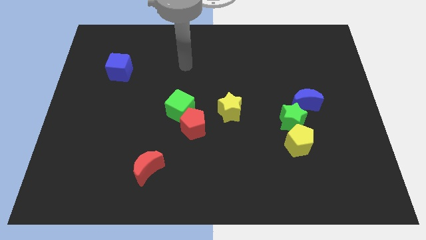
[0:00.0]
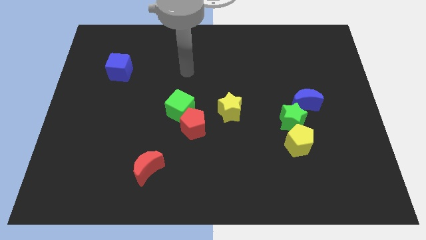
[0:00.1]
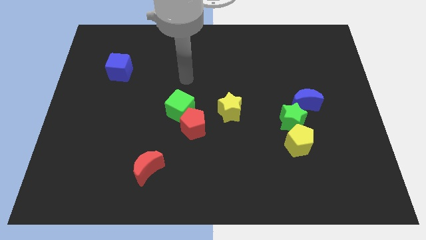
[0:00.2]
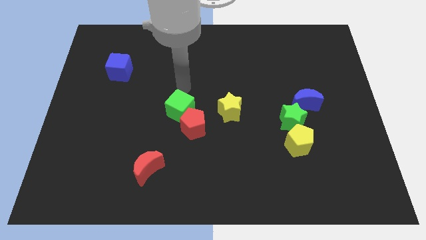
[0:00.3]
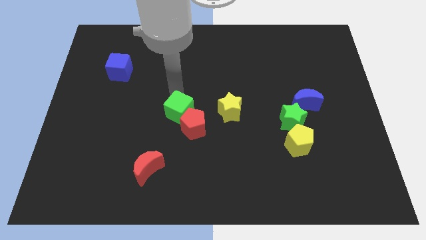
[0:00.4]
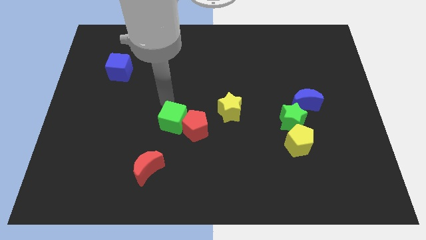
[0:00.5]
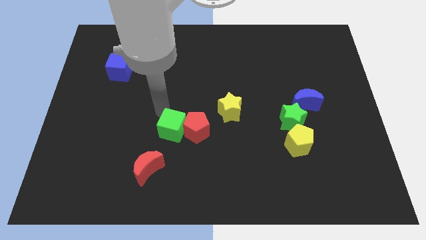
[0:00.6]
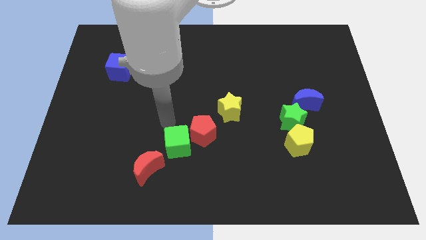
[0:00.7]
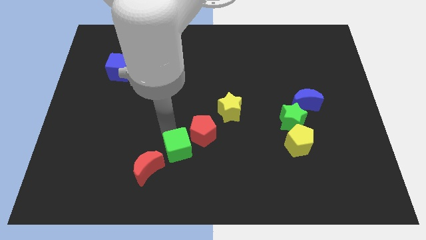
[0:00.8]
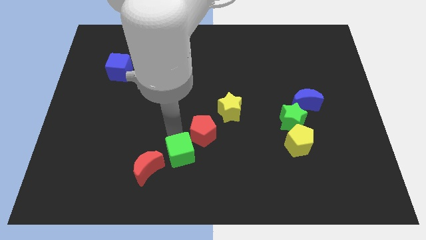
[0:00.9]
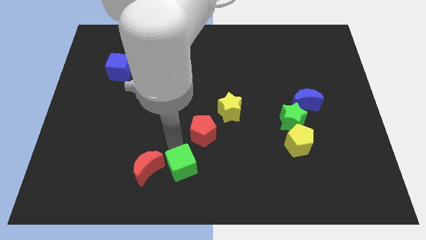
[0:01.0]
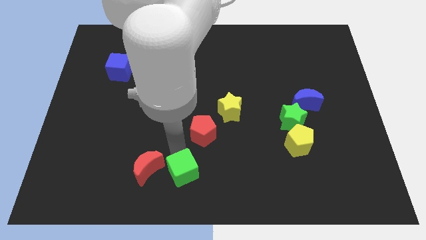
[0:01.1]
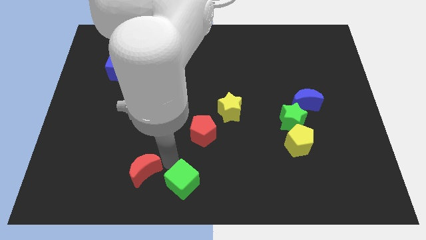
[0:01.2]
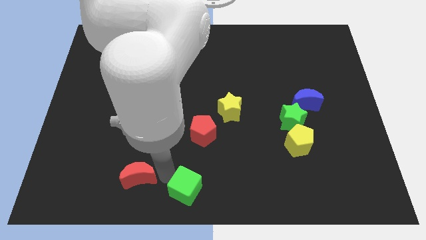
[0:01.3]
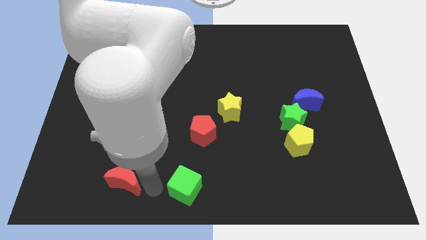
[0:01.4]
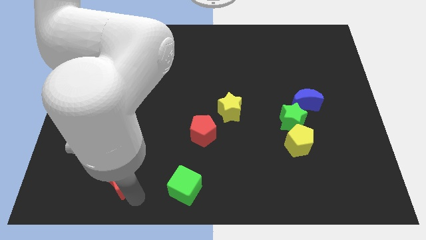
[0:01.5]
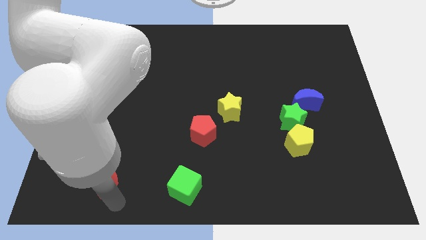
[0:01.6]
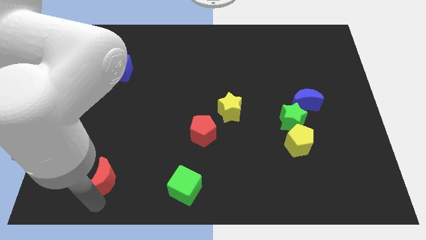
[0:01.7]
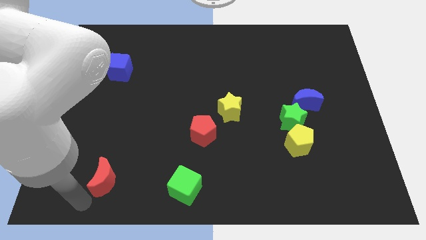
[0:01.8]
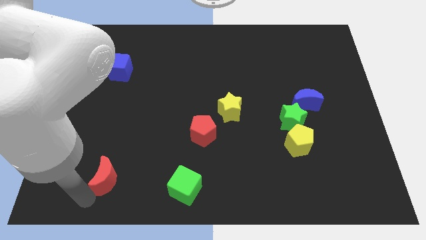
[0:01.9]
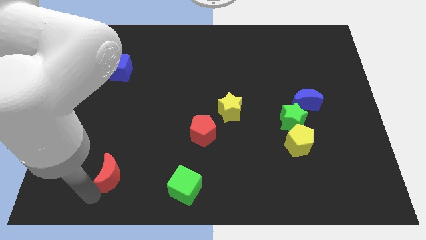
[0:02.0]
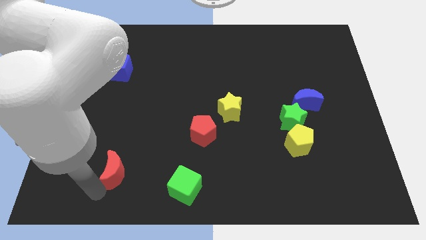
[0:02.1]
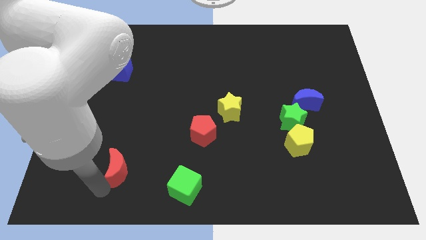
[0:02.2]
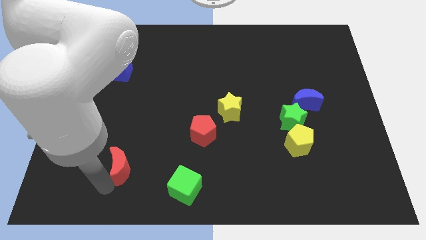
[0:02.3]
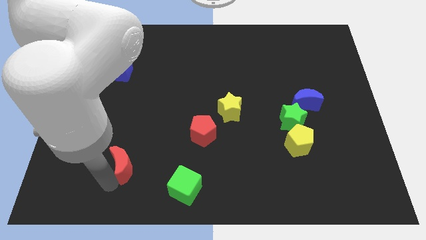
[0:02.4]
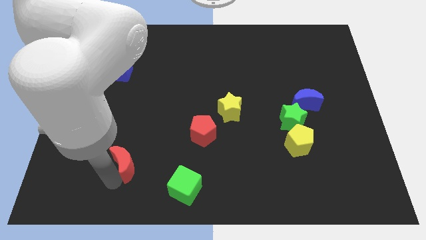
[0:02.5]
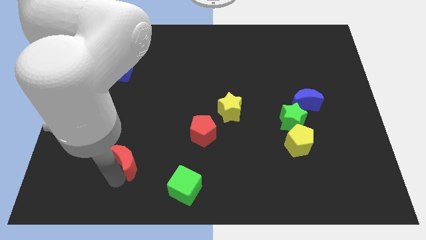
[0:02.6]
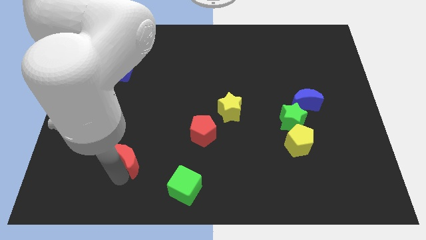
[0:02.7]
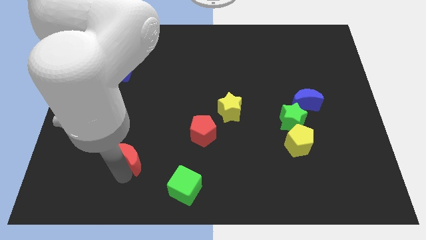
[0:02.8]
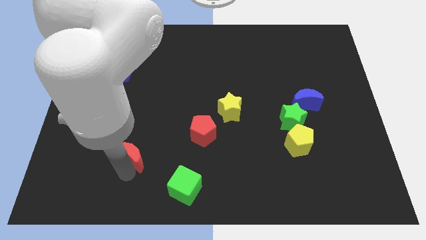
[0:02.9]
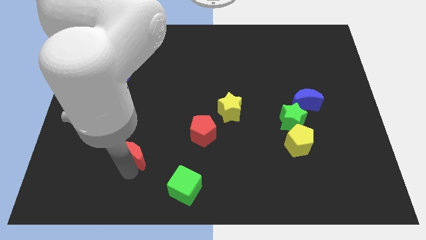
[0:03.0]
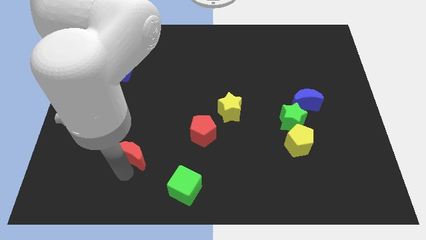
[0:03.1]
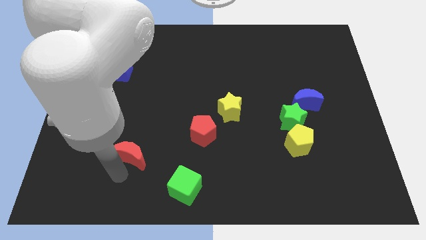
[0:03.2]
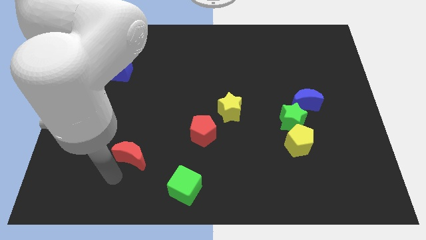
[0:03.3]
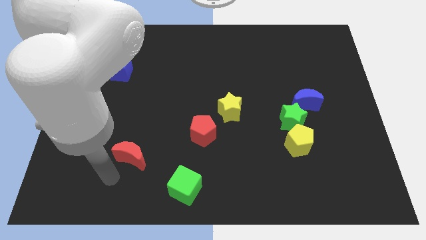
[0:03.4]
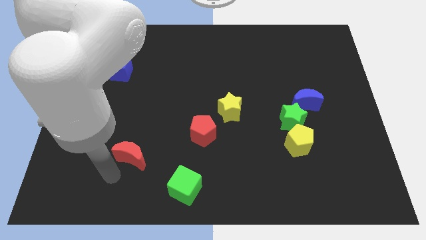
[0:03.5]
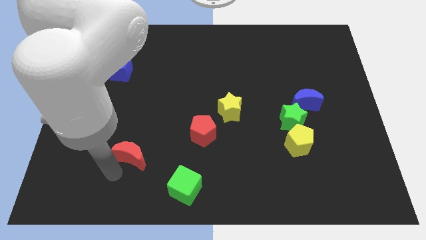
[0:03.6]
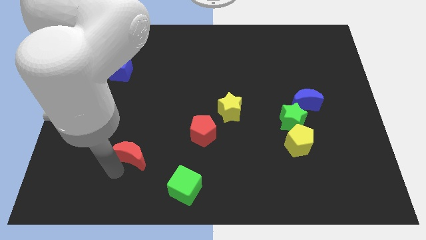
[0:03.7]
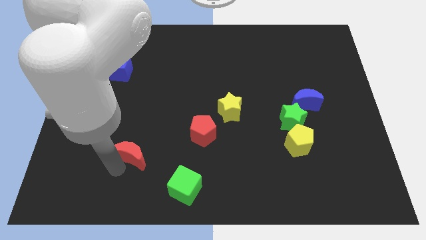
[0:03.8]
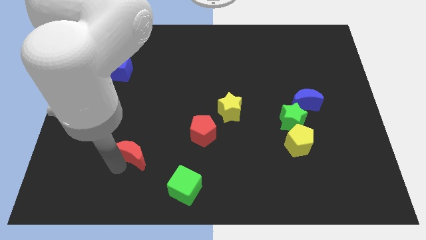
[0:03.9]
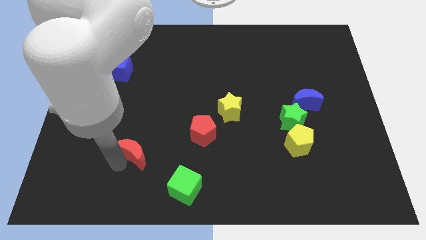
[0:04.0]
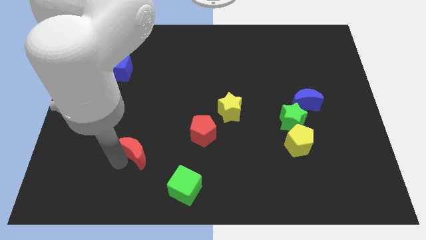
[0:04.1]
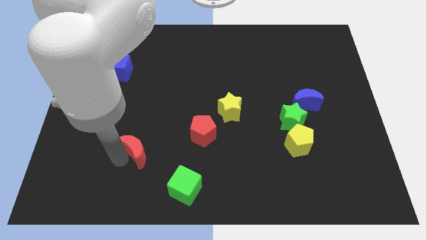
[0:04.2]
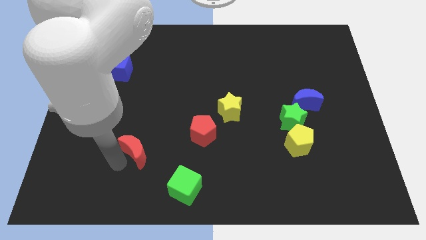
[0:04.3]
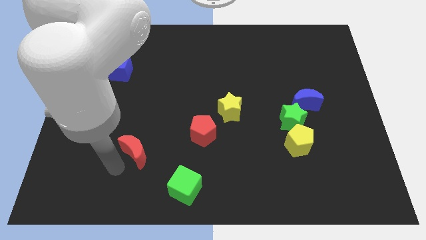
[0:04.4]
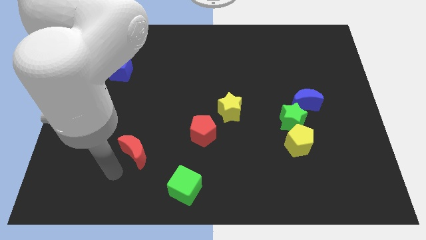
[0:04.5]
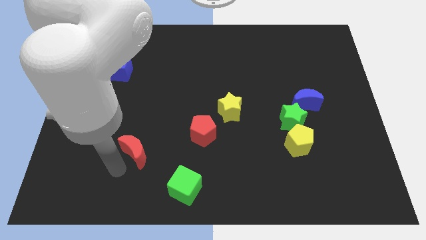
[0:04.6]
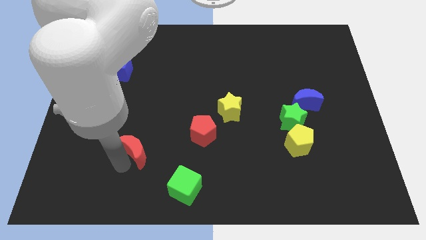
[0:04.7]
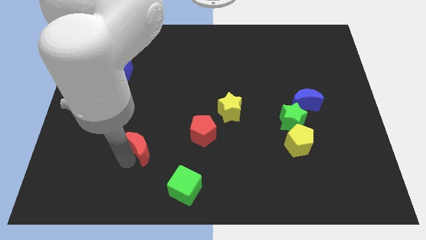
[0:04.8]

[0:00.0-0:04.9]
slide the red moon left of the red pentagon

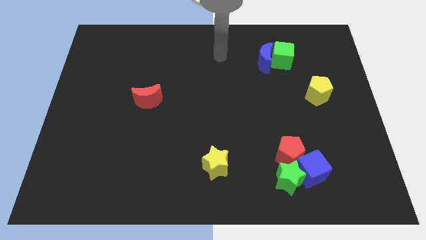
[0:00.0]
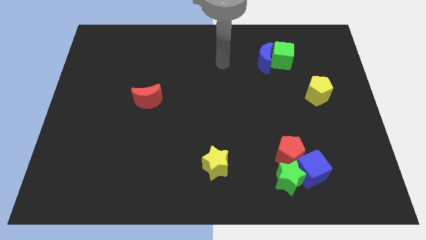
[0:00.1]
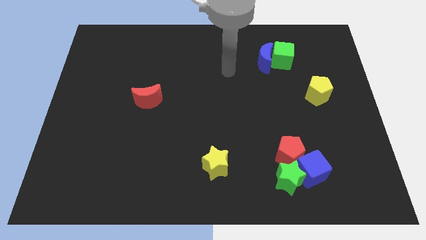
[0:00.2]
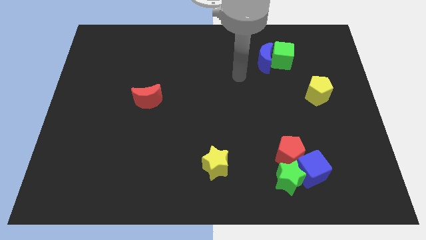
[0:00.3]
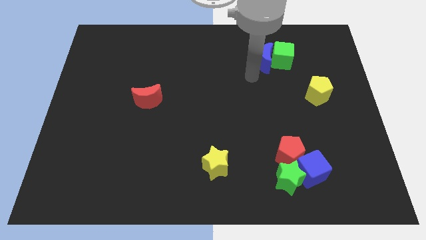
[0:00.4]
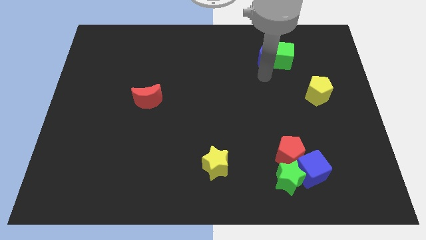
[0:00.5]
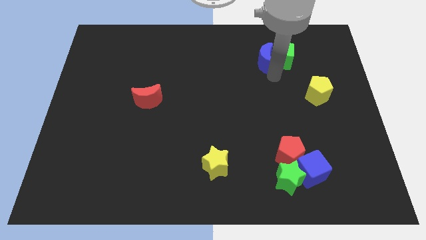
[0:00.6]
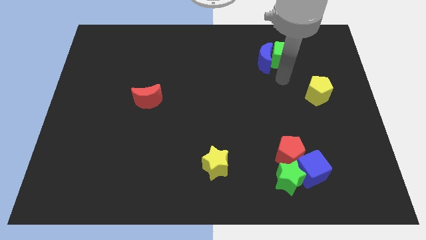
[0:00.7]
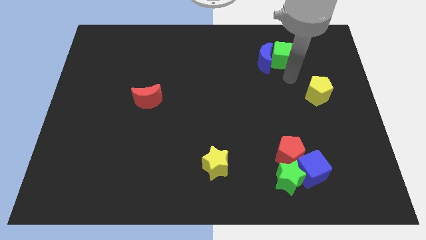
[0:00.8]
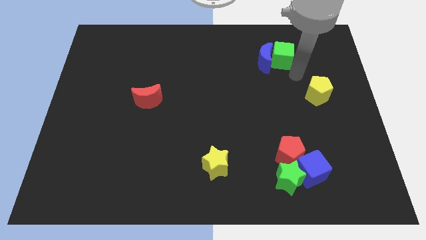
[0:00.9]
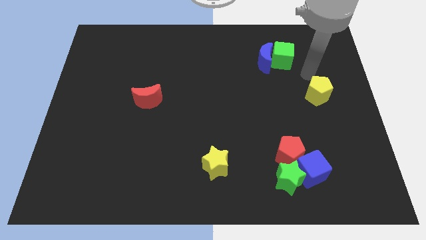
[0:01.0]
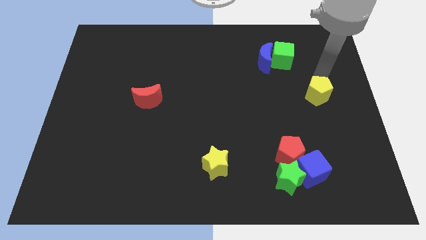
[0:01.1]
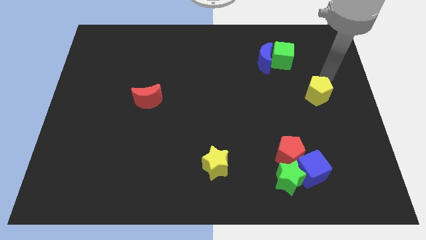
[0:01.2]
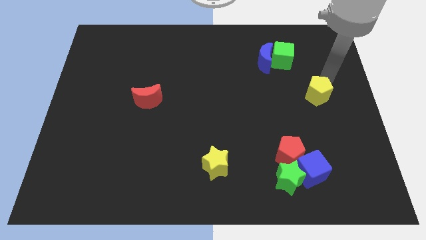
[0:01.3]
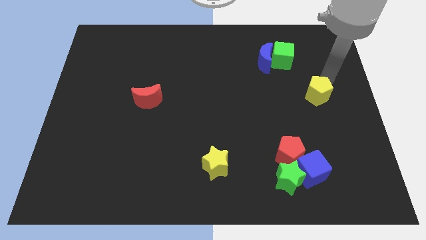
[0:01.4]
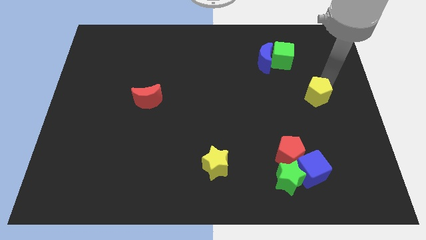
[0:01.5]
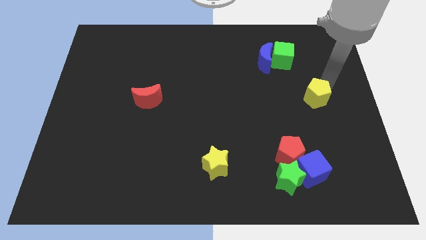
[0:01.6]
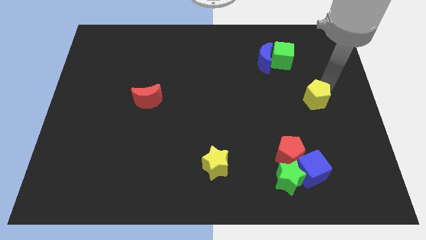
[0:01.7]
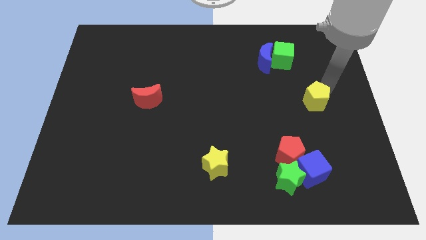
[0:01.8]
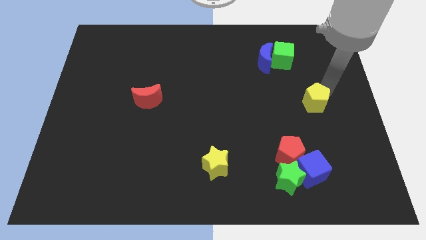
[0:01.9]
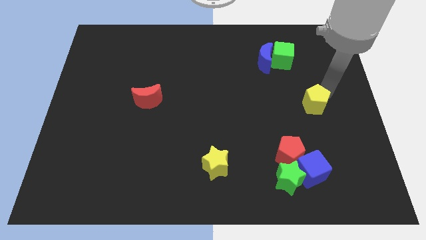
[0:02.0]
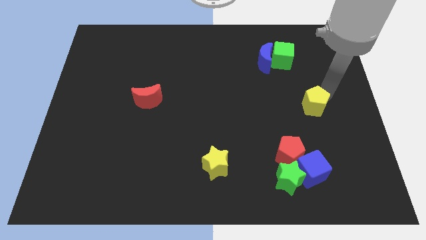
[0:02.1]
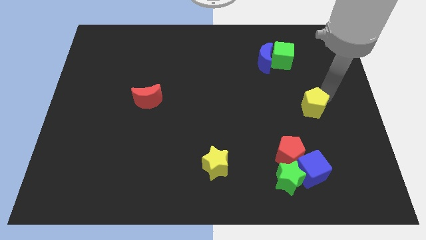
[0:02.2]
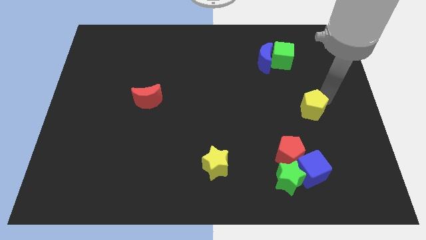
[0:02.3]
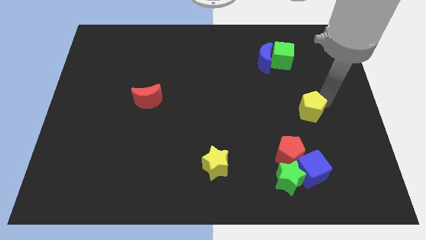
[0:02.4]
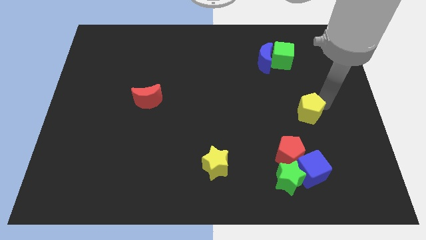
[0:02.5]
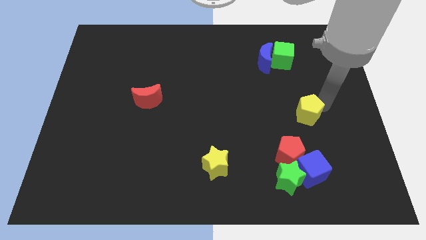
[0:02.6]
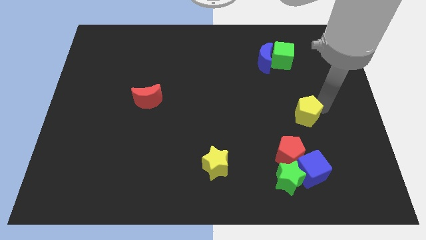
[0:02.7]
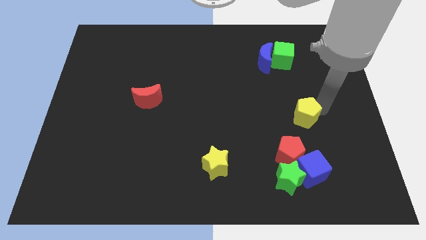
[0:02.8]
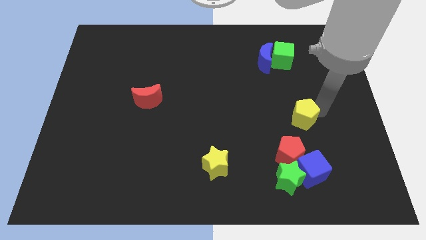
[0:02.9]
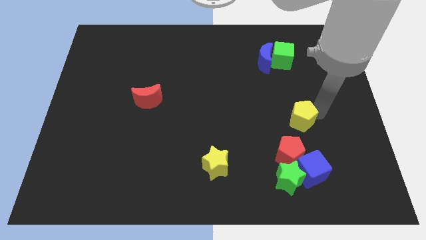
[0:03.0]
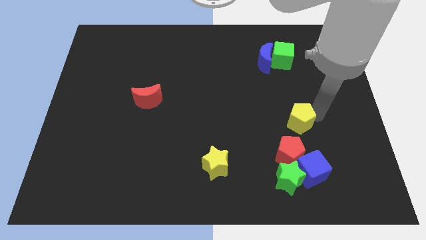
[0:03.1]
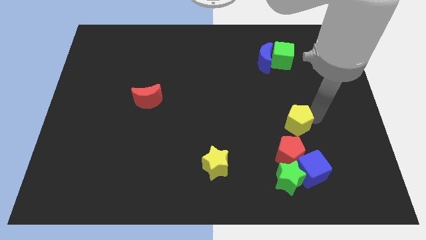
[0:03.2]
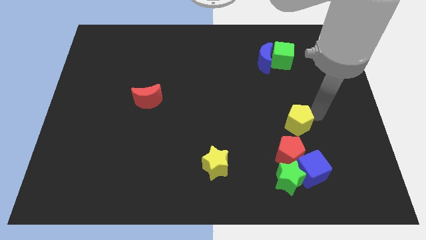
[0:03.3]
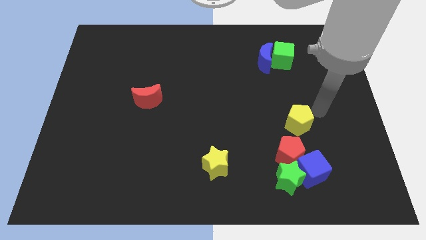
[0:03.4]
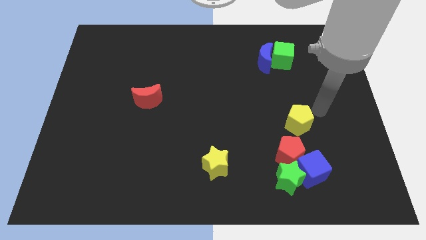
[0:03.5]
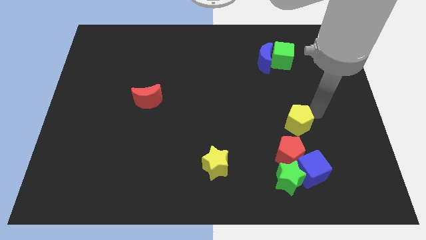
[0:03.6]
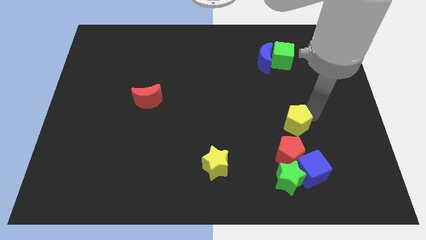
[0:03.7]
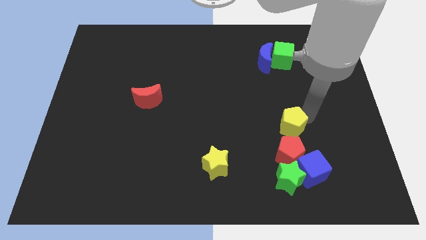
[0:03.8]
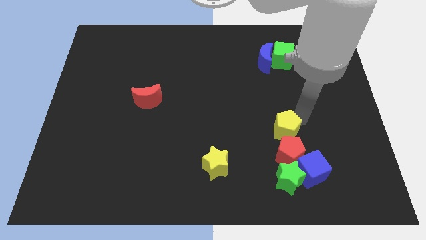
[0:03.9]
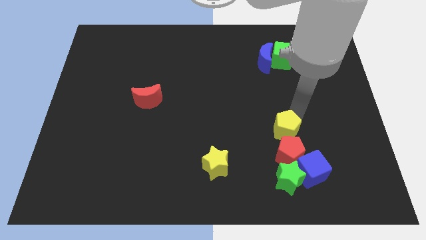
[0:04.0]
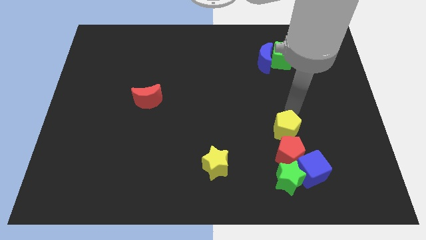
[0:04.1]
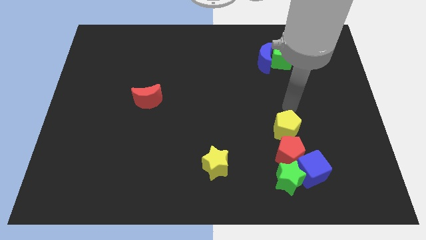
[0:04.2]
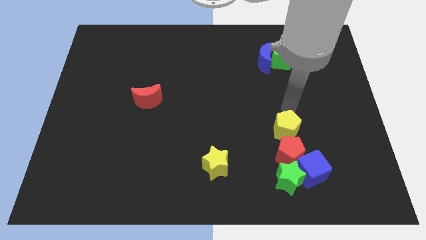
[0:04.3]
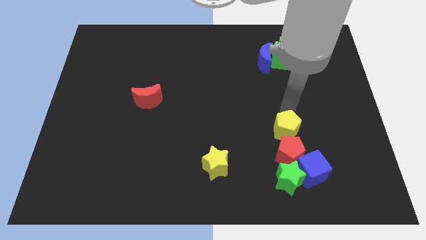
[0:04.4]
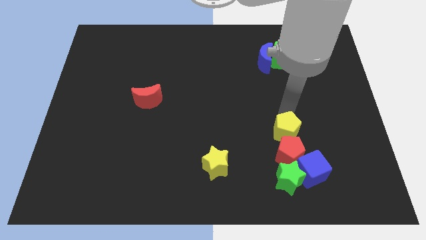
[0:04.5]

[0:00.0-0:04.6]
push the yellow pentagon to the top left side of the blue cube
